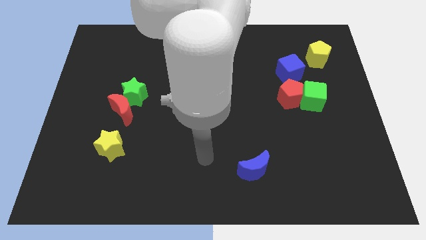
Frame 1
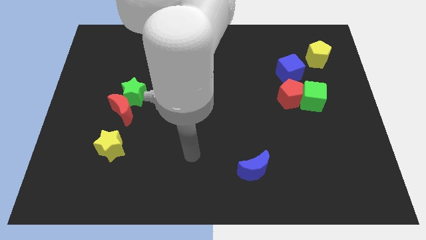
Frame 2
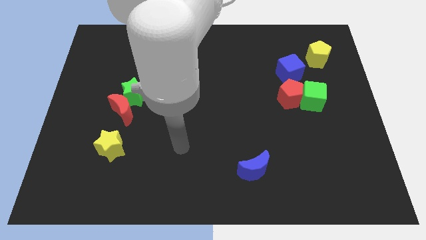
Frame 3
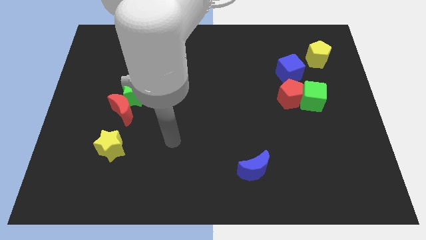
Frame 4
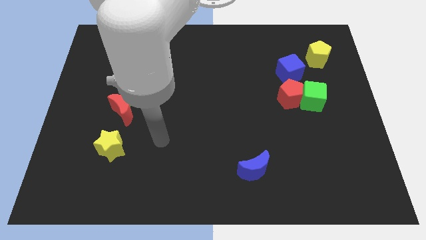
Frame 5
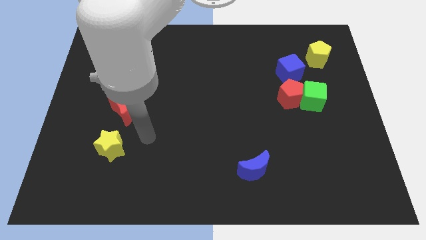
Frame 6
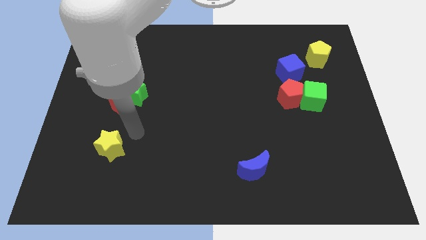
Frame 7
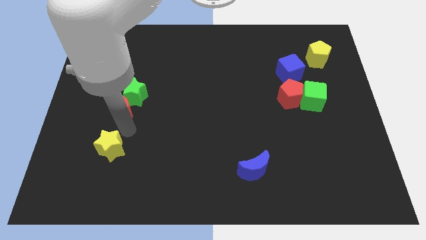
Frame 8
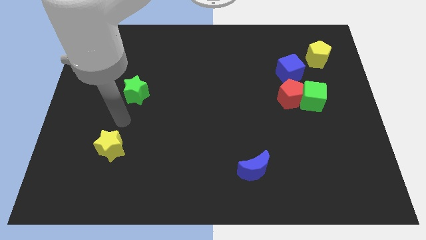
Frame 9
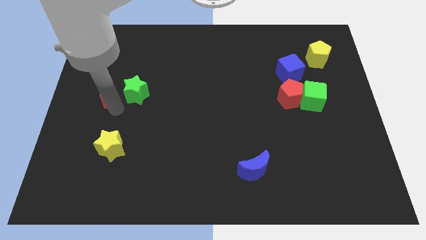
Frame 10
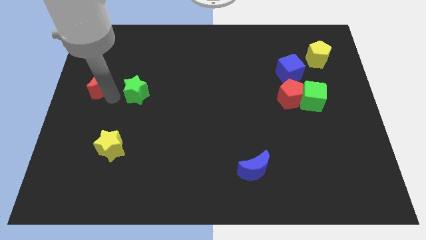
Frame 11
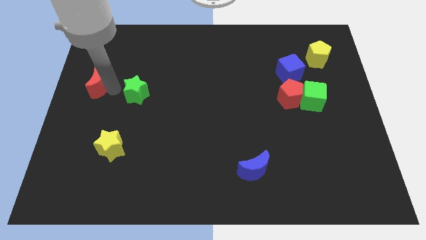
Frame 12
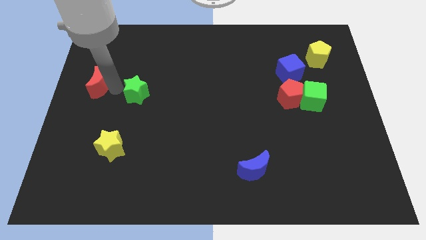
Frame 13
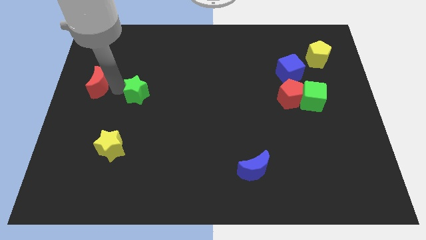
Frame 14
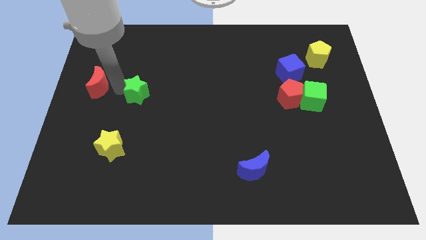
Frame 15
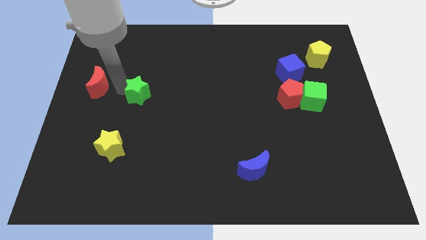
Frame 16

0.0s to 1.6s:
move the green star away from the red moon

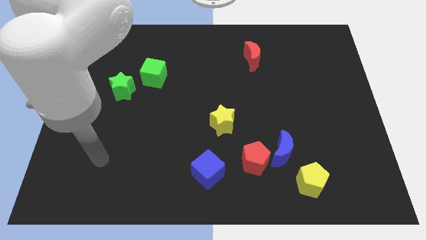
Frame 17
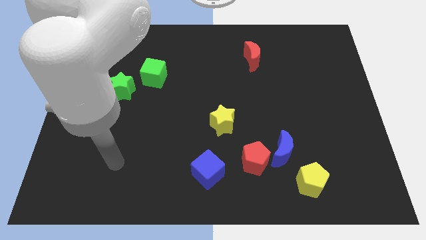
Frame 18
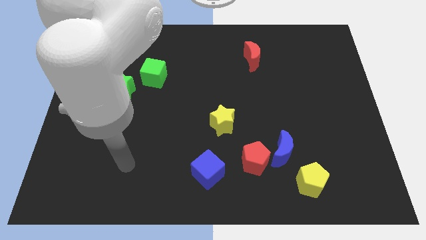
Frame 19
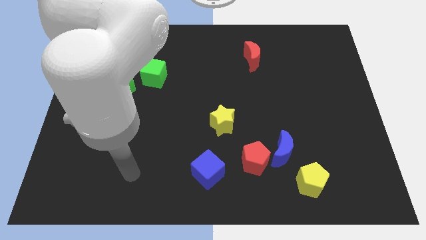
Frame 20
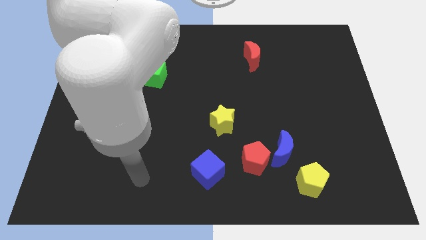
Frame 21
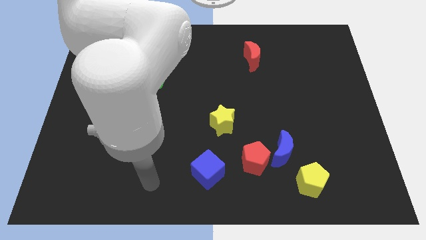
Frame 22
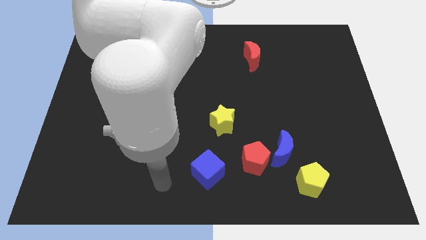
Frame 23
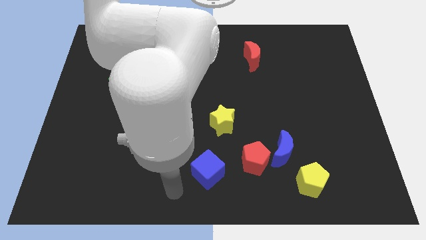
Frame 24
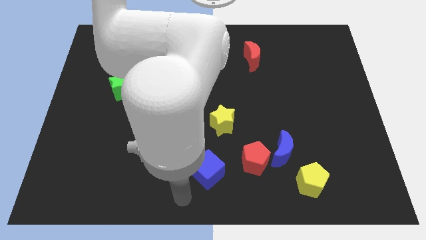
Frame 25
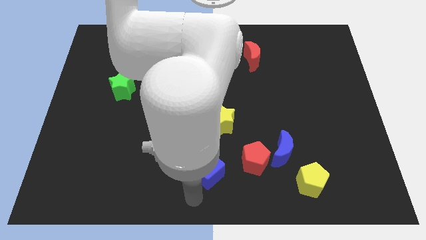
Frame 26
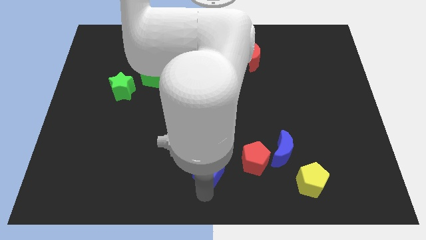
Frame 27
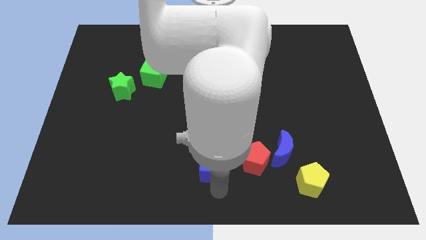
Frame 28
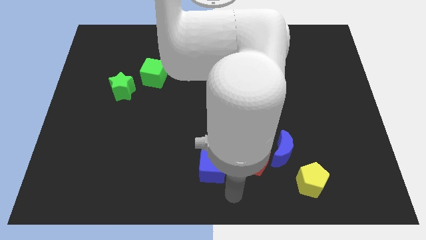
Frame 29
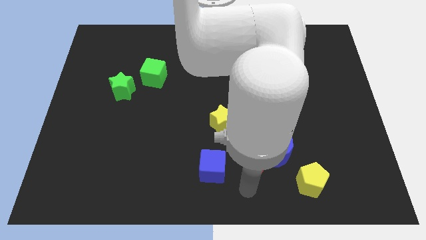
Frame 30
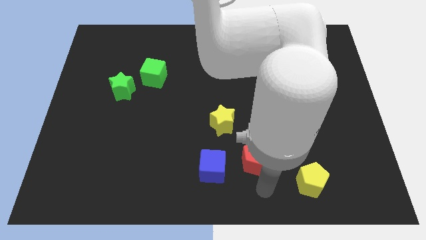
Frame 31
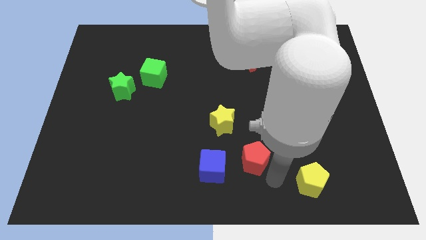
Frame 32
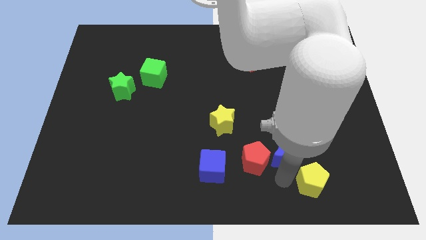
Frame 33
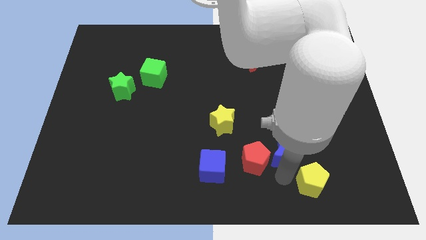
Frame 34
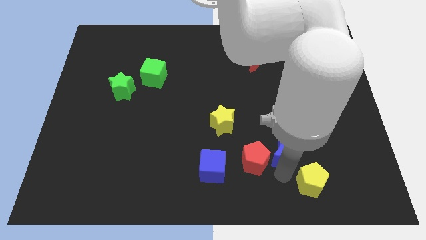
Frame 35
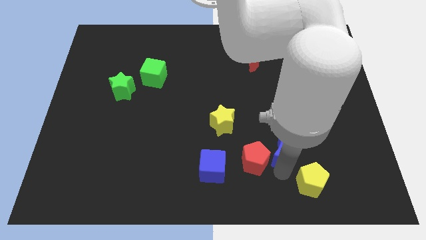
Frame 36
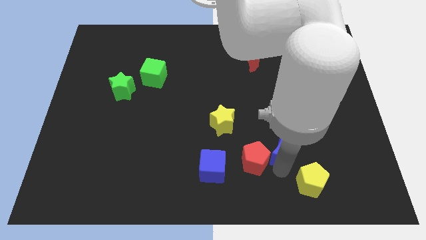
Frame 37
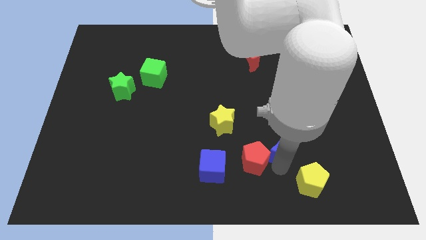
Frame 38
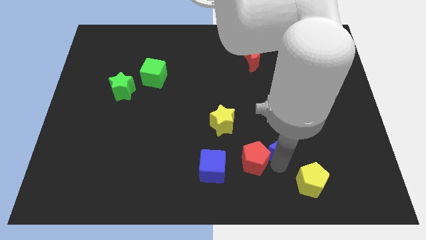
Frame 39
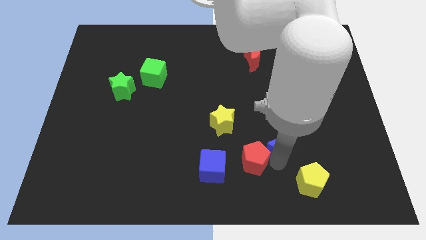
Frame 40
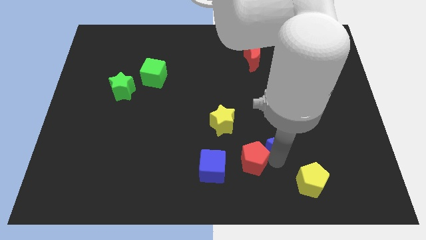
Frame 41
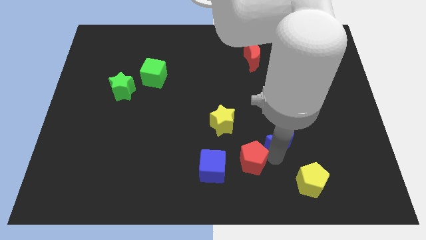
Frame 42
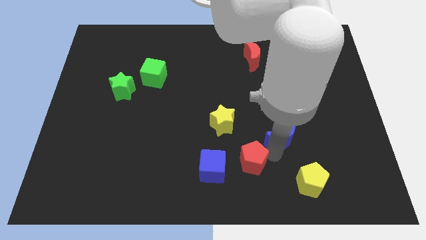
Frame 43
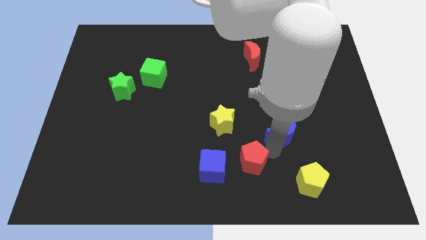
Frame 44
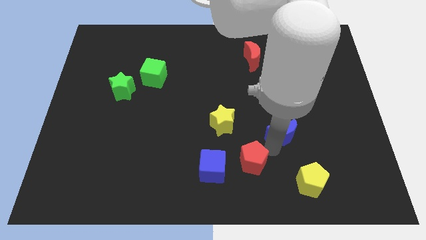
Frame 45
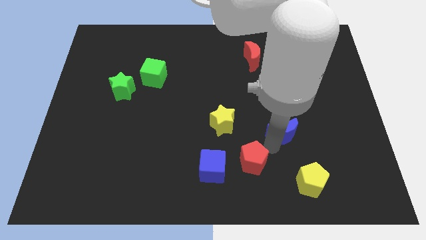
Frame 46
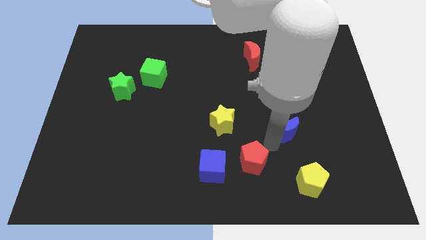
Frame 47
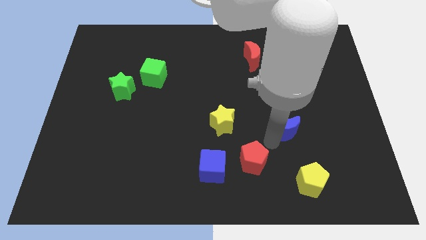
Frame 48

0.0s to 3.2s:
move the blue moon away from the red pentagon and yellow pentagon

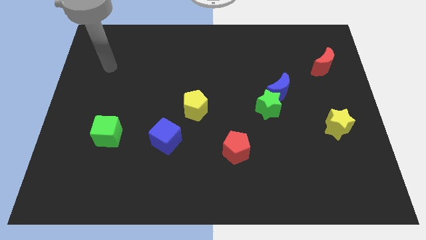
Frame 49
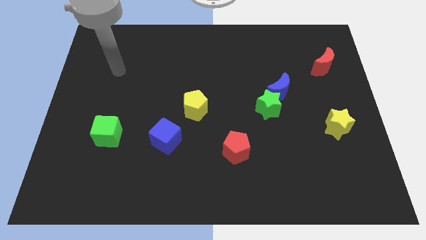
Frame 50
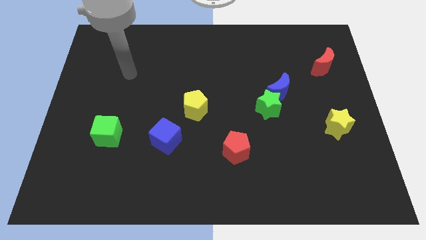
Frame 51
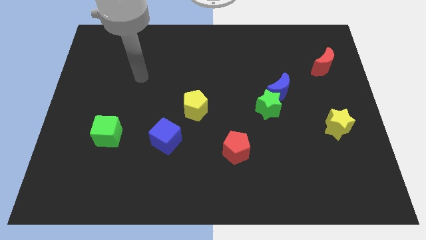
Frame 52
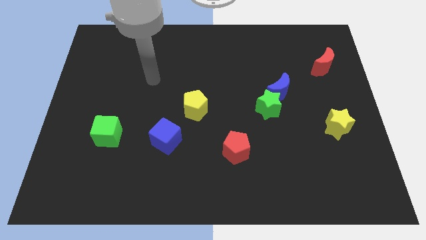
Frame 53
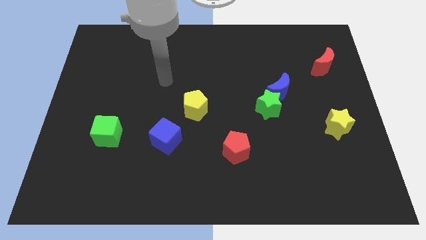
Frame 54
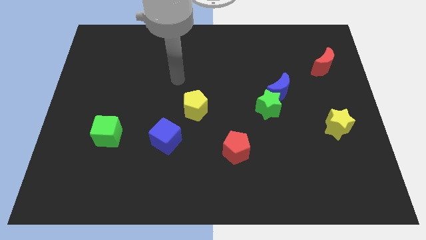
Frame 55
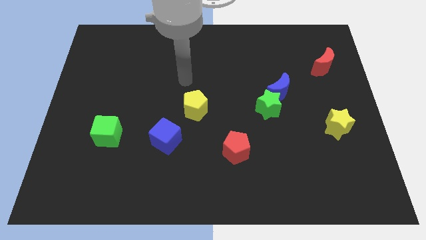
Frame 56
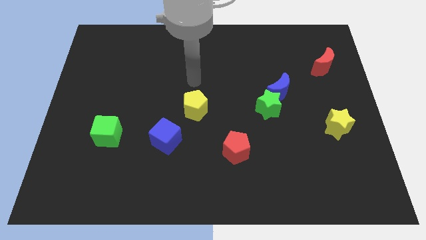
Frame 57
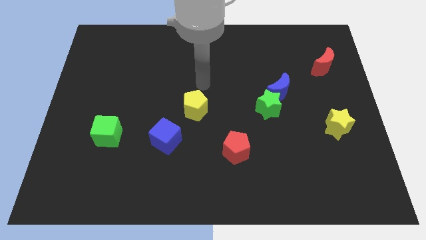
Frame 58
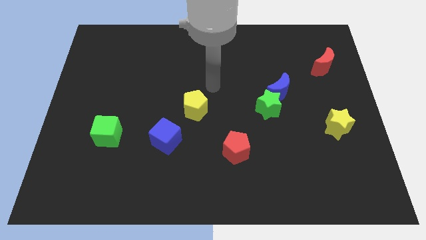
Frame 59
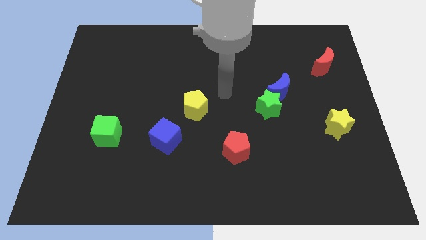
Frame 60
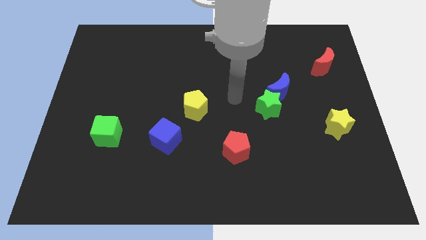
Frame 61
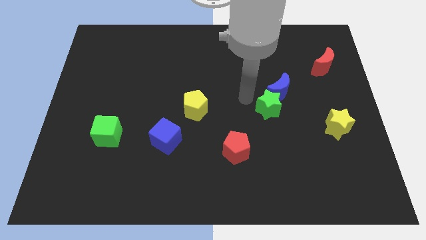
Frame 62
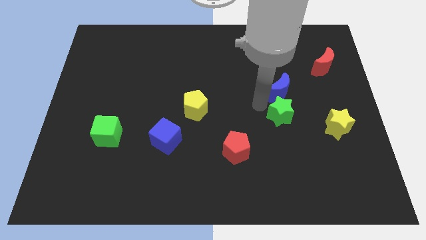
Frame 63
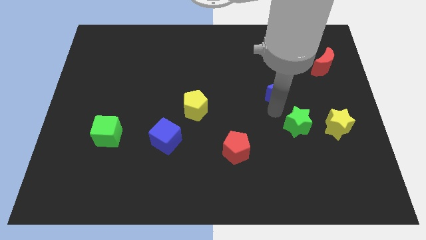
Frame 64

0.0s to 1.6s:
separate the blue moon from the green star

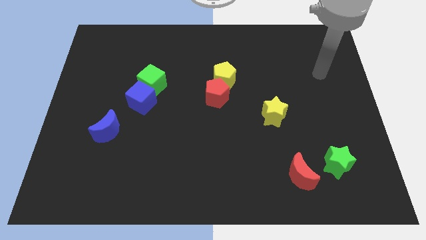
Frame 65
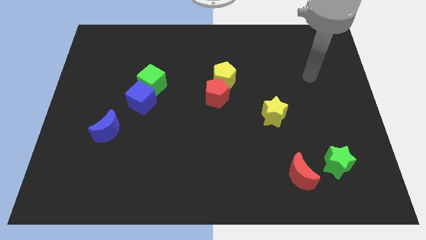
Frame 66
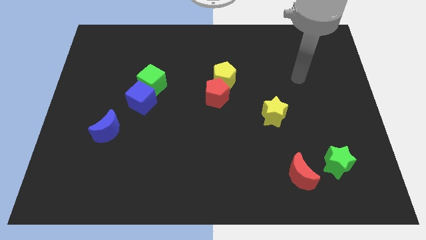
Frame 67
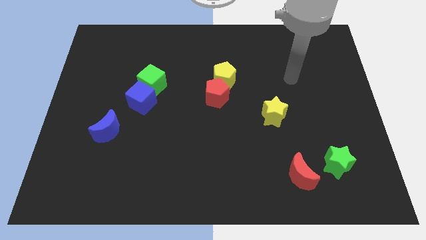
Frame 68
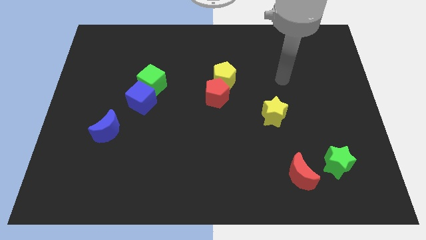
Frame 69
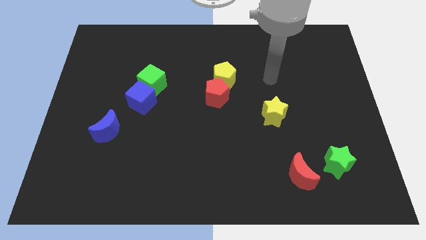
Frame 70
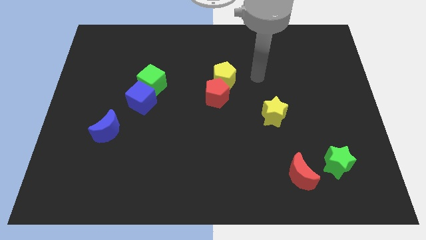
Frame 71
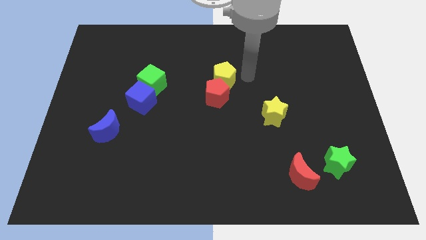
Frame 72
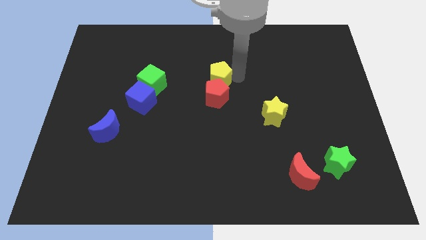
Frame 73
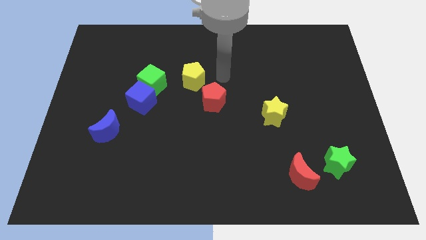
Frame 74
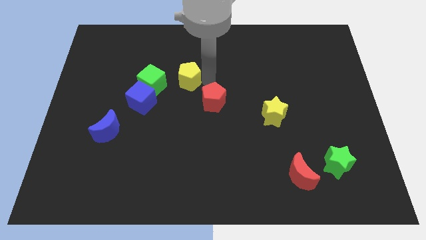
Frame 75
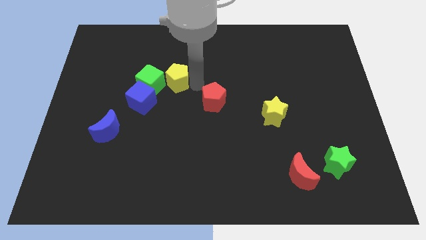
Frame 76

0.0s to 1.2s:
separate the red pentagon from the yellow pentagon

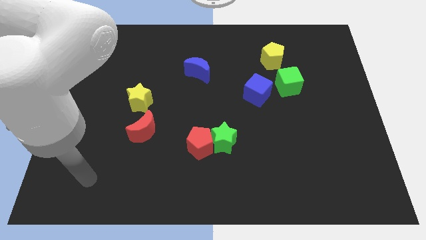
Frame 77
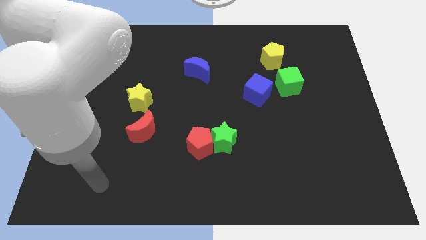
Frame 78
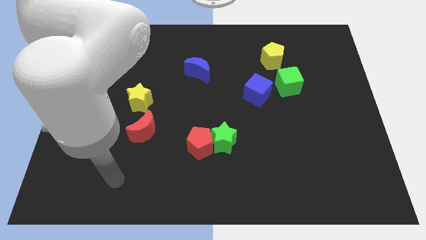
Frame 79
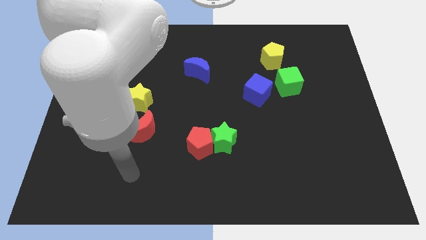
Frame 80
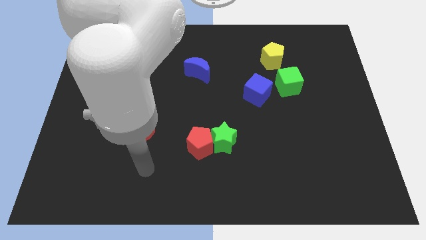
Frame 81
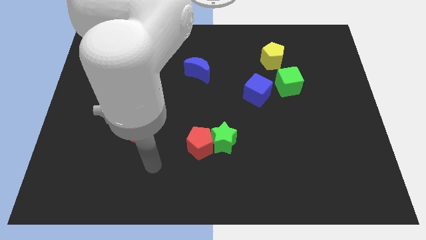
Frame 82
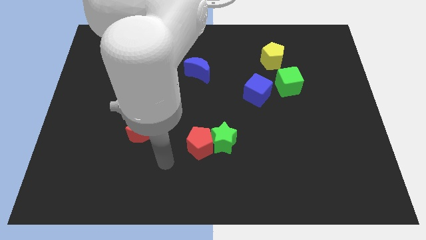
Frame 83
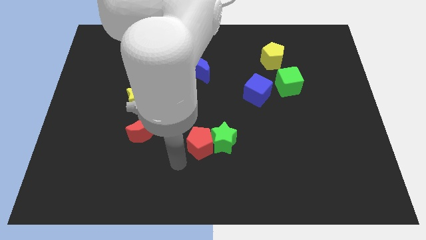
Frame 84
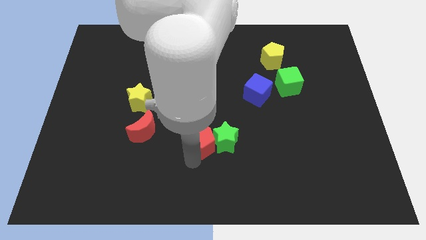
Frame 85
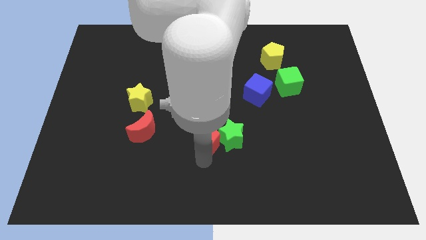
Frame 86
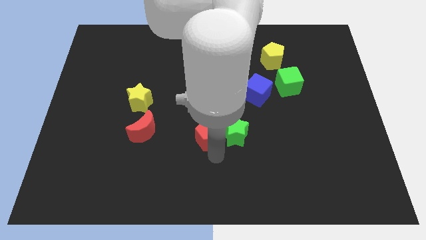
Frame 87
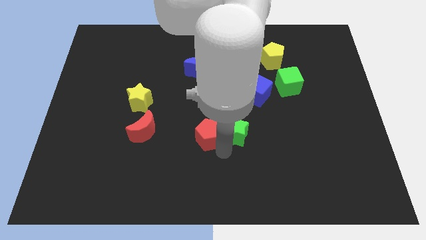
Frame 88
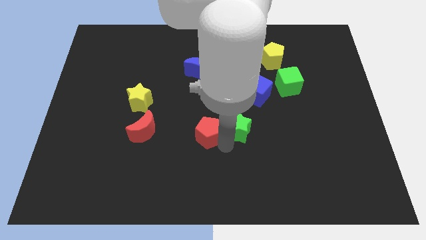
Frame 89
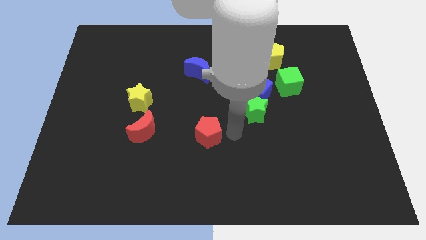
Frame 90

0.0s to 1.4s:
separate the red pentagon from the green star

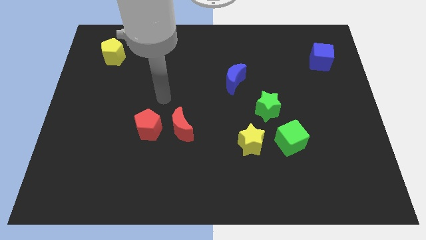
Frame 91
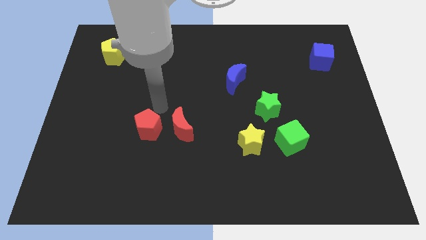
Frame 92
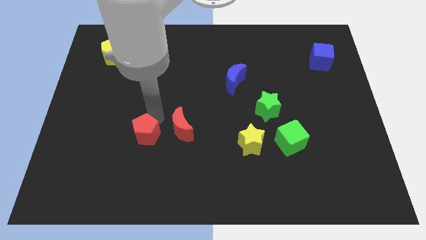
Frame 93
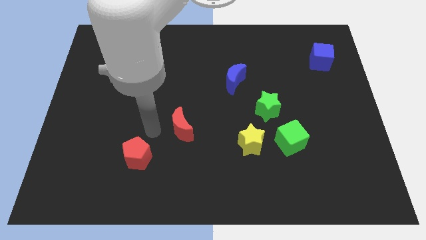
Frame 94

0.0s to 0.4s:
pull the red moon apart from the red pentagon
